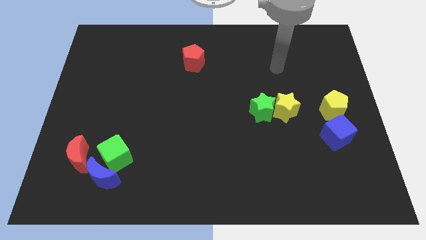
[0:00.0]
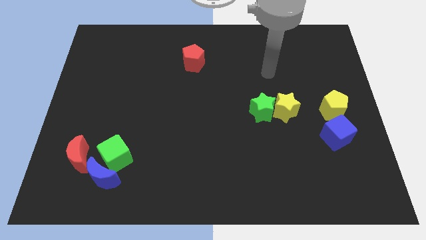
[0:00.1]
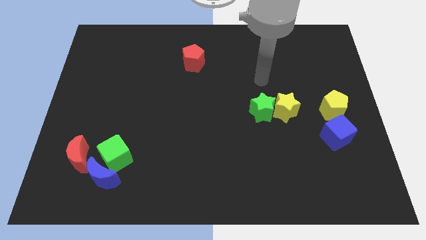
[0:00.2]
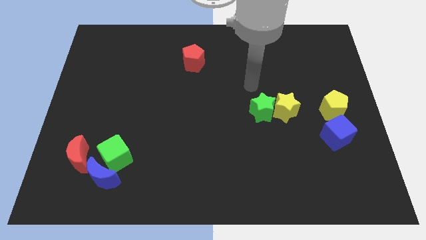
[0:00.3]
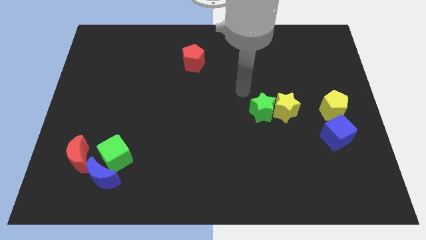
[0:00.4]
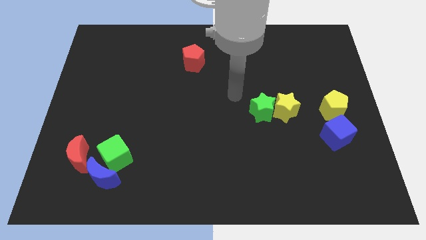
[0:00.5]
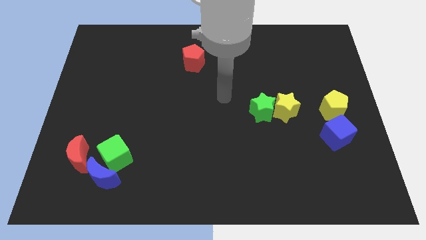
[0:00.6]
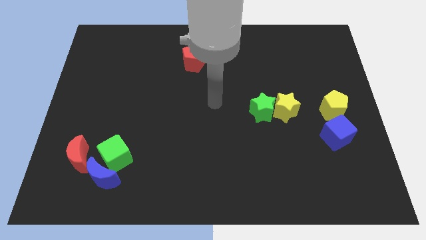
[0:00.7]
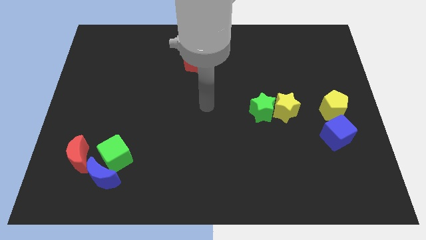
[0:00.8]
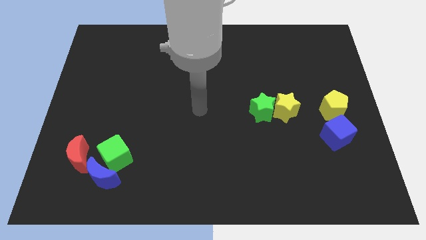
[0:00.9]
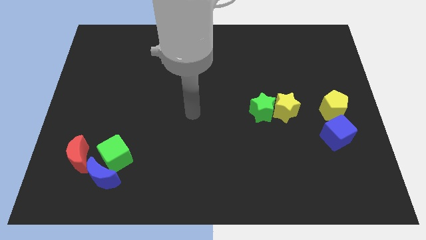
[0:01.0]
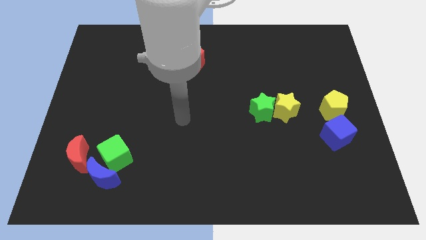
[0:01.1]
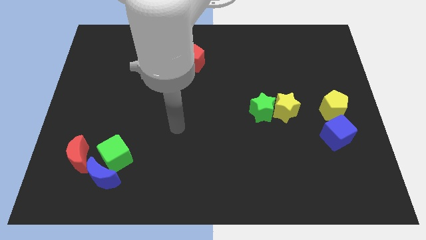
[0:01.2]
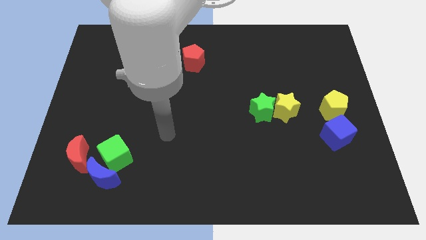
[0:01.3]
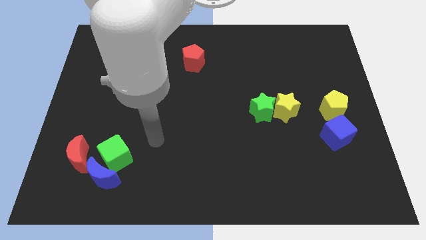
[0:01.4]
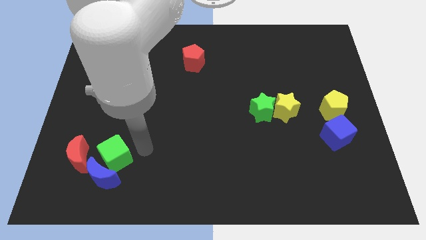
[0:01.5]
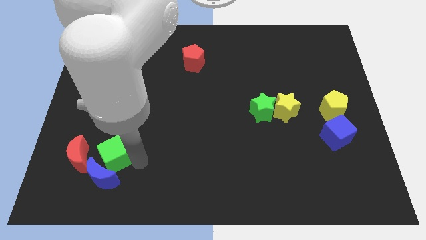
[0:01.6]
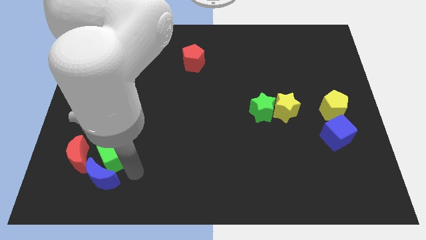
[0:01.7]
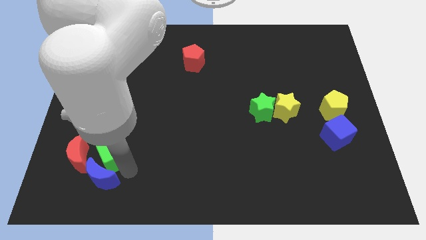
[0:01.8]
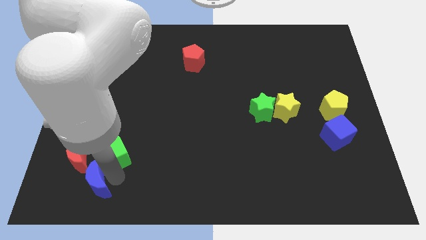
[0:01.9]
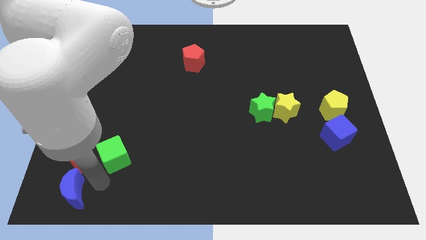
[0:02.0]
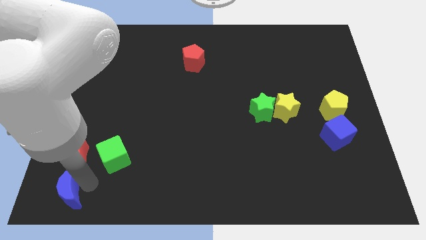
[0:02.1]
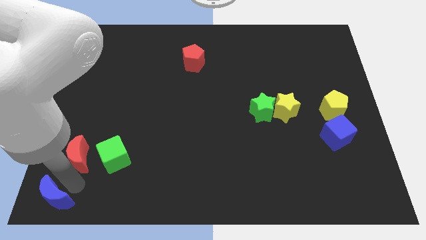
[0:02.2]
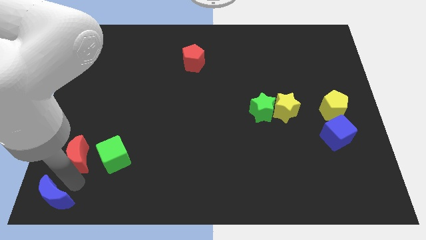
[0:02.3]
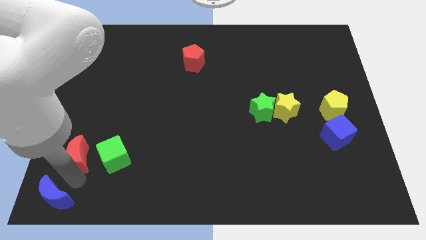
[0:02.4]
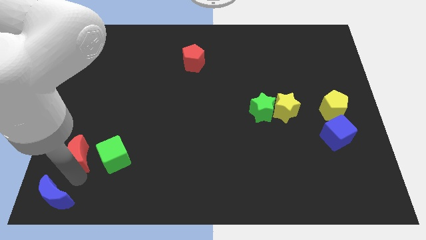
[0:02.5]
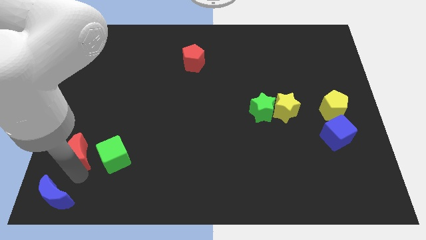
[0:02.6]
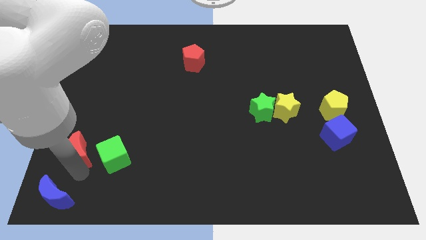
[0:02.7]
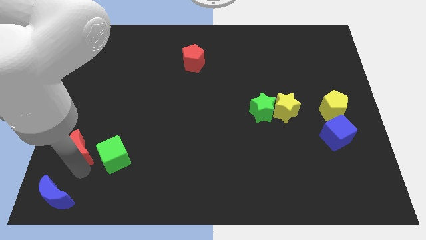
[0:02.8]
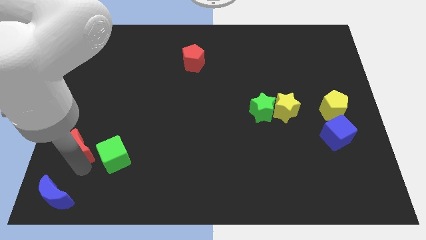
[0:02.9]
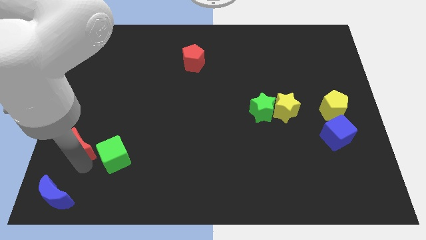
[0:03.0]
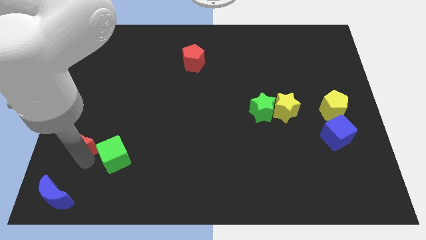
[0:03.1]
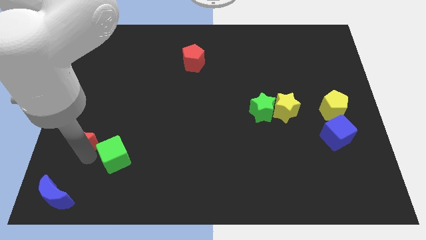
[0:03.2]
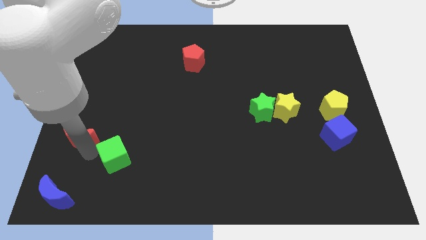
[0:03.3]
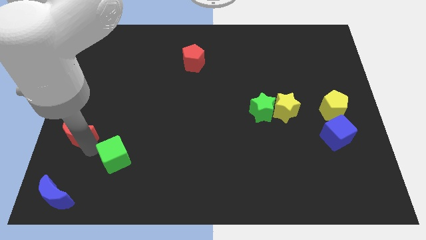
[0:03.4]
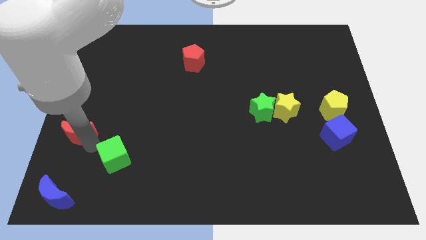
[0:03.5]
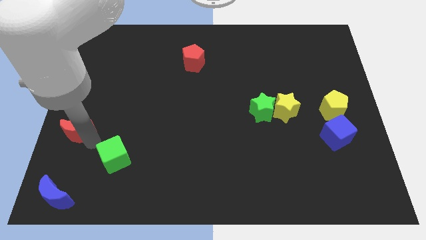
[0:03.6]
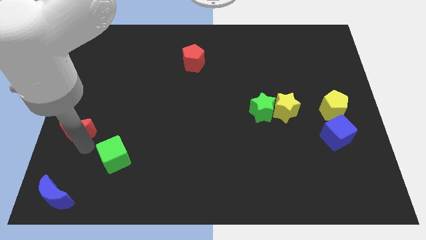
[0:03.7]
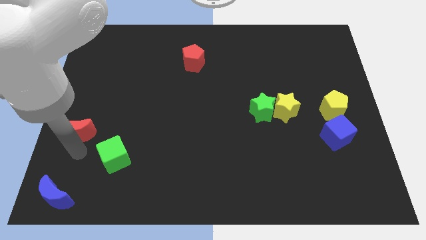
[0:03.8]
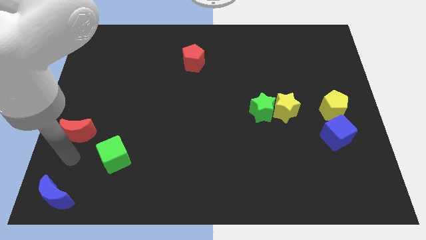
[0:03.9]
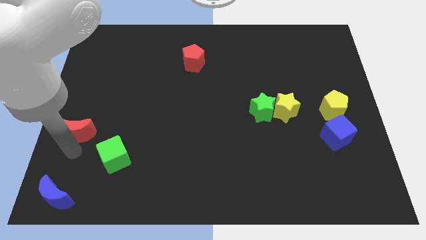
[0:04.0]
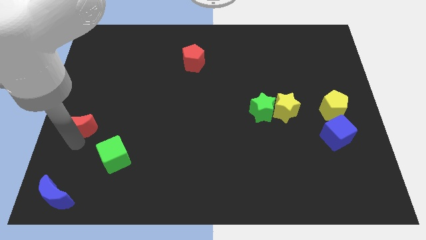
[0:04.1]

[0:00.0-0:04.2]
slightly push the red moon up

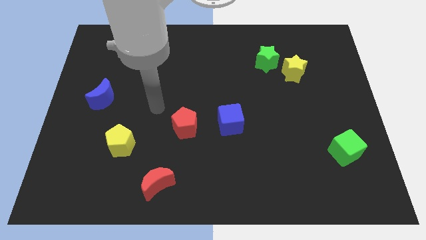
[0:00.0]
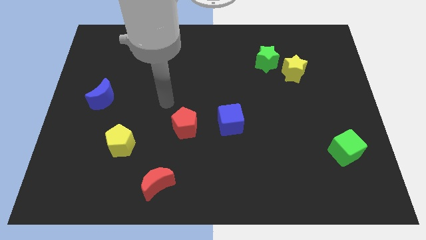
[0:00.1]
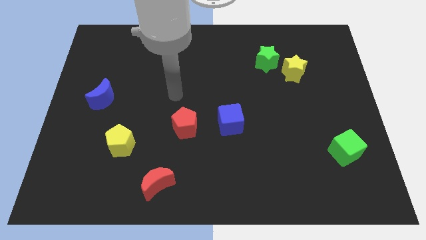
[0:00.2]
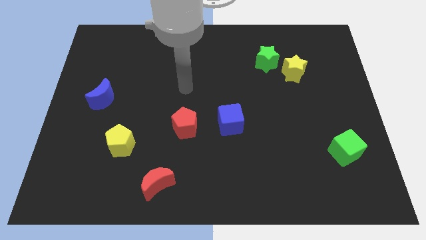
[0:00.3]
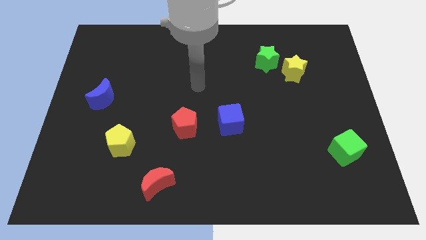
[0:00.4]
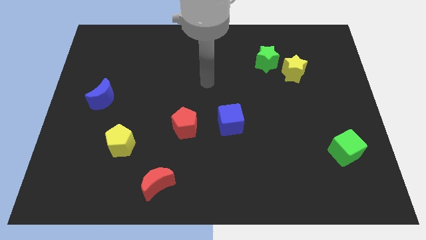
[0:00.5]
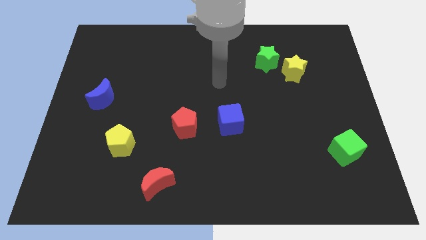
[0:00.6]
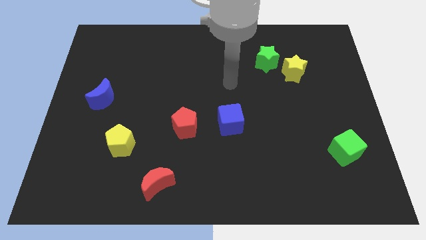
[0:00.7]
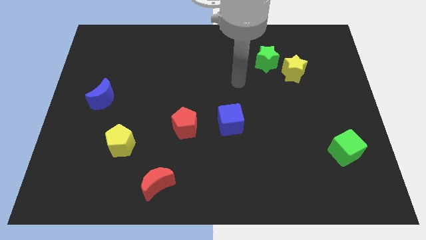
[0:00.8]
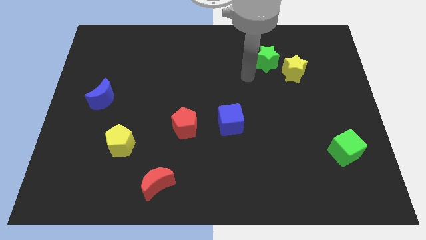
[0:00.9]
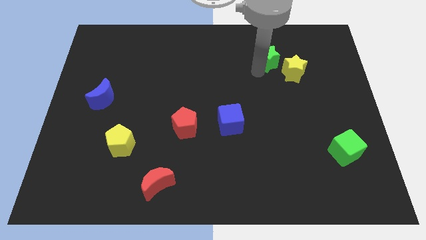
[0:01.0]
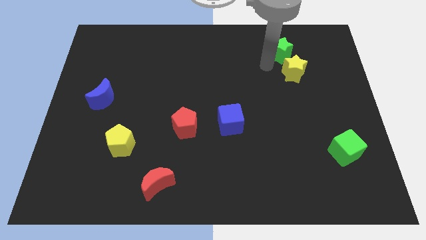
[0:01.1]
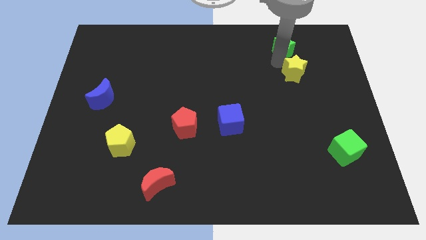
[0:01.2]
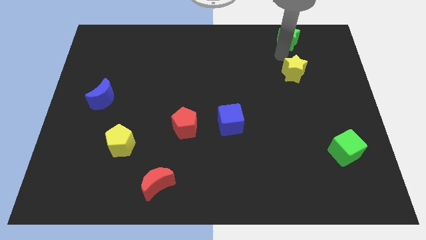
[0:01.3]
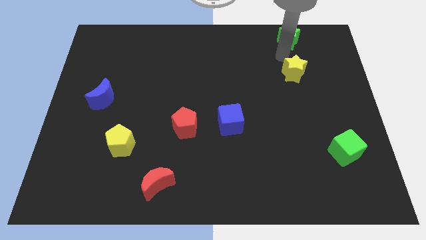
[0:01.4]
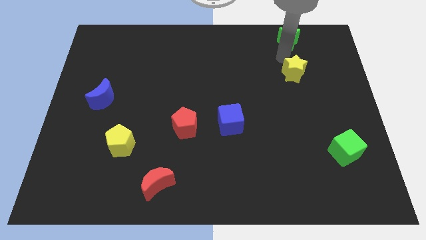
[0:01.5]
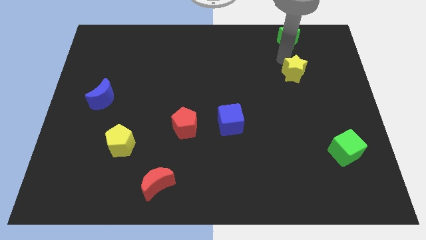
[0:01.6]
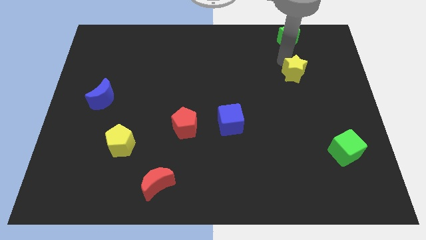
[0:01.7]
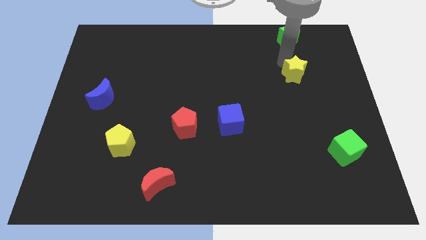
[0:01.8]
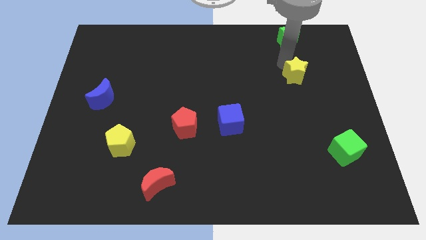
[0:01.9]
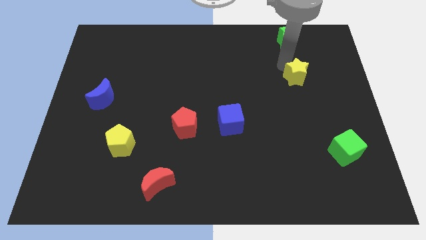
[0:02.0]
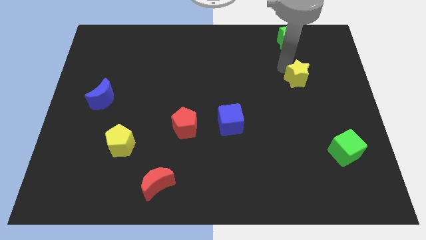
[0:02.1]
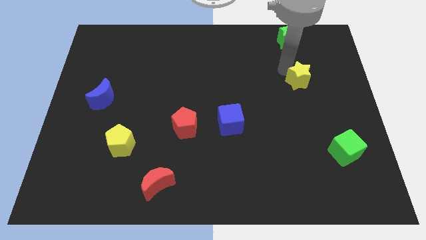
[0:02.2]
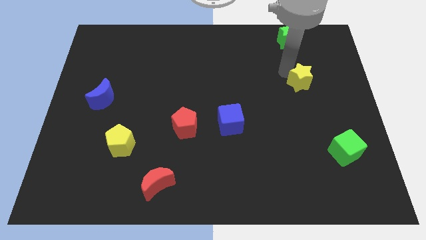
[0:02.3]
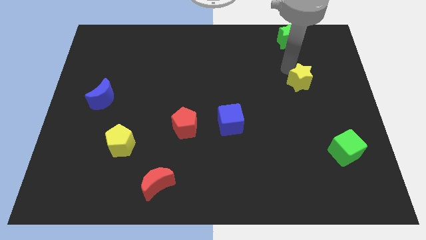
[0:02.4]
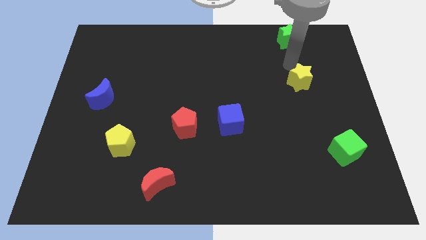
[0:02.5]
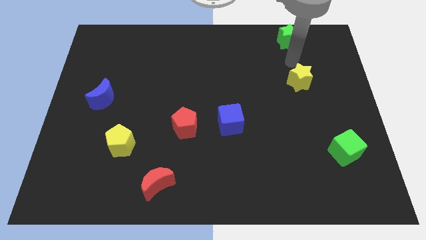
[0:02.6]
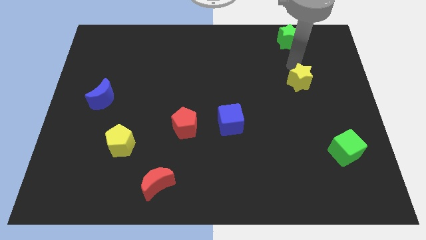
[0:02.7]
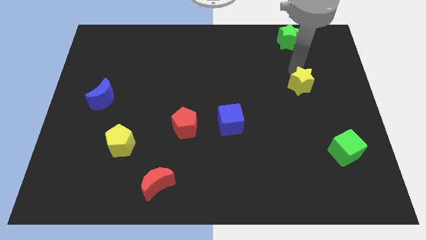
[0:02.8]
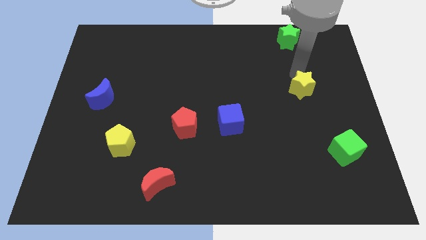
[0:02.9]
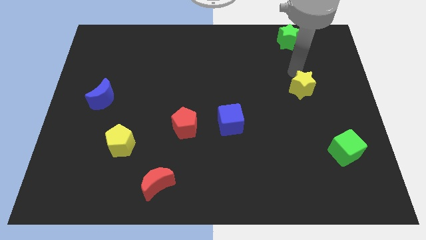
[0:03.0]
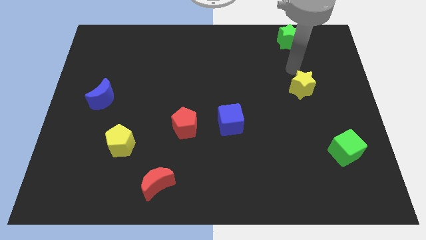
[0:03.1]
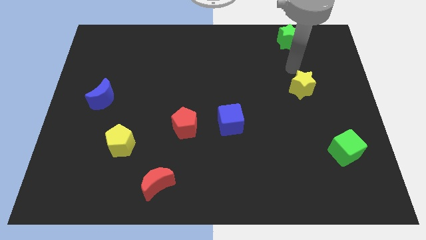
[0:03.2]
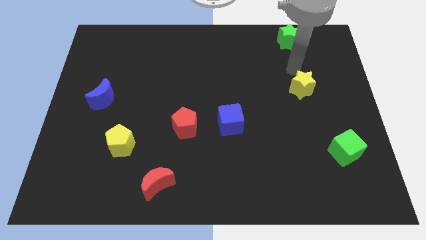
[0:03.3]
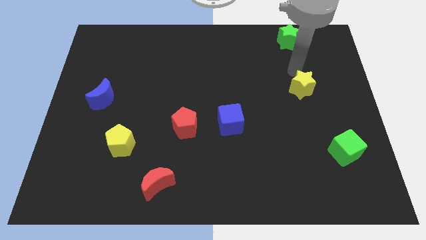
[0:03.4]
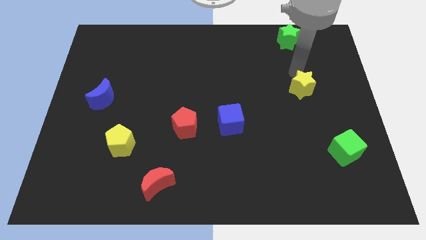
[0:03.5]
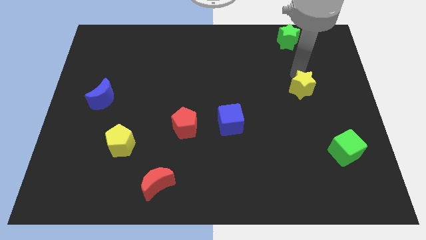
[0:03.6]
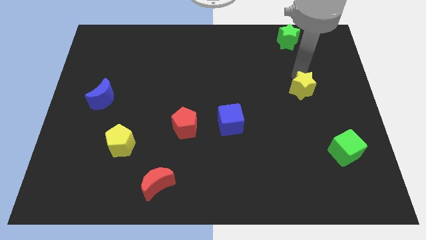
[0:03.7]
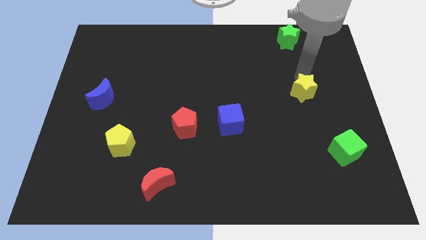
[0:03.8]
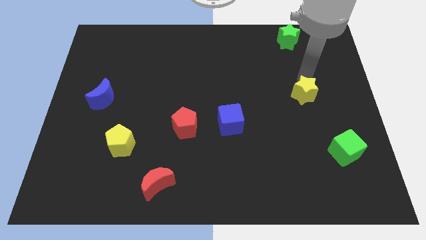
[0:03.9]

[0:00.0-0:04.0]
slightly push the yellow star downwards

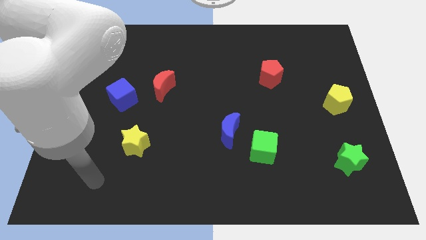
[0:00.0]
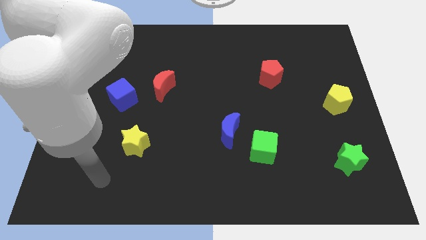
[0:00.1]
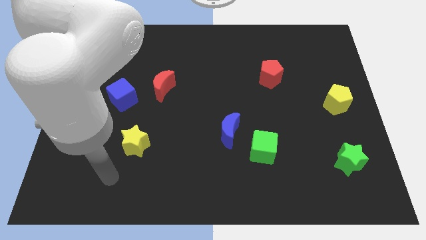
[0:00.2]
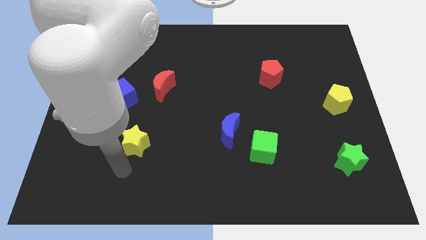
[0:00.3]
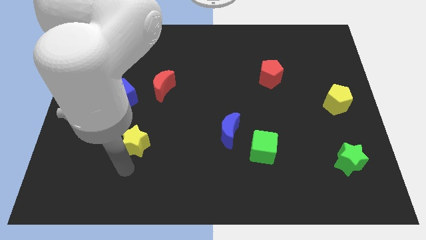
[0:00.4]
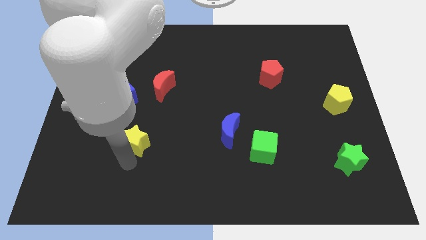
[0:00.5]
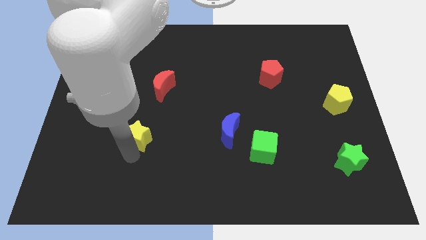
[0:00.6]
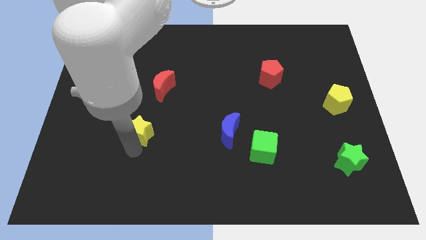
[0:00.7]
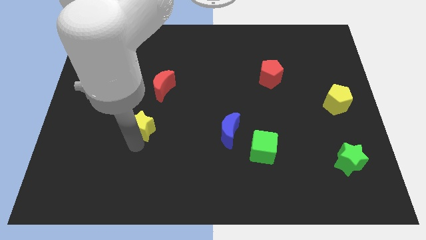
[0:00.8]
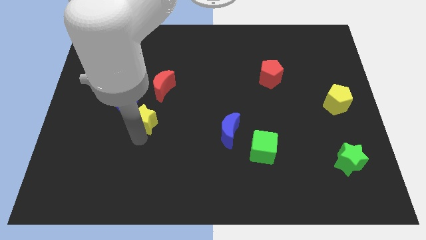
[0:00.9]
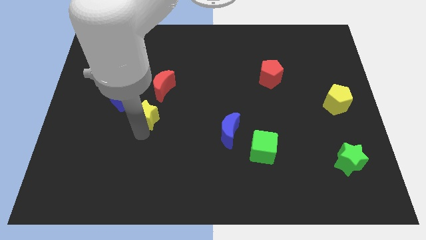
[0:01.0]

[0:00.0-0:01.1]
move the yellow star up somewhat
